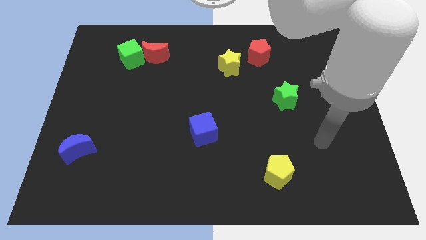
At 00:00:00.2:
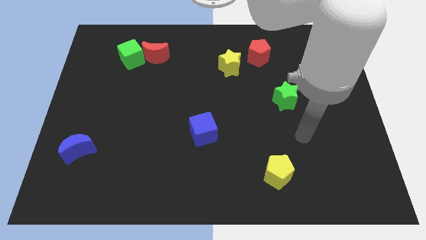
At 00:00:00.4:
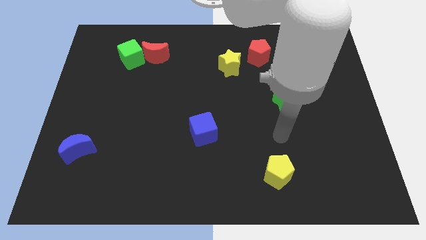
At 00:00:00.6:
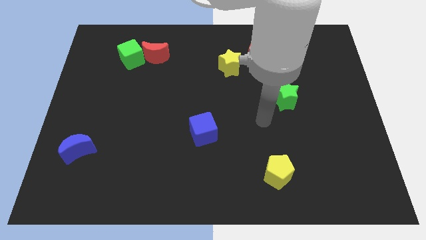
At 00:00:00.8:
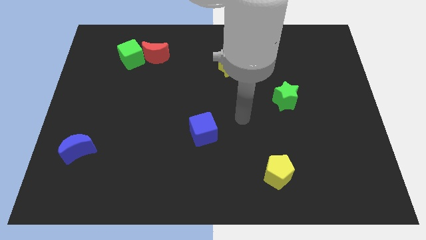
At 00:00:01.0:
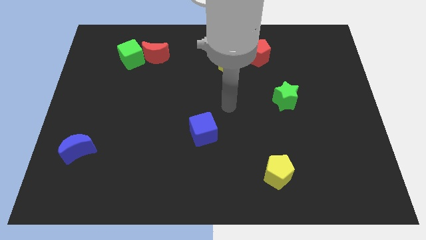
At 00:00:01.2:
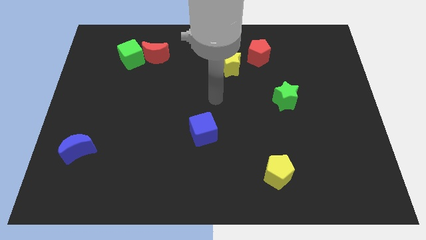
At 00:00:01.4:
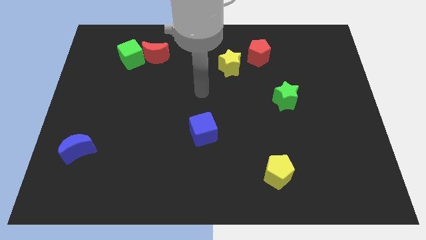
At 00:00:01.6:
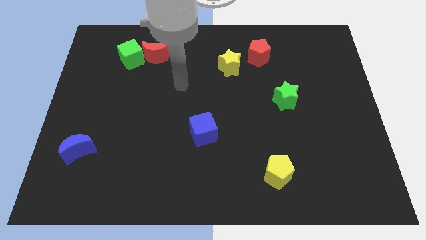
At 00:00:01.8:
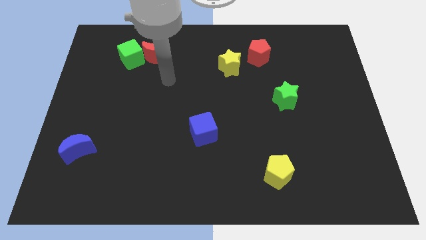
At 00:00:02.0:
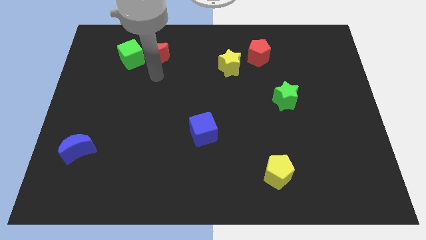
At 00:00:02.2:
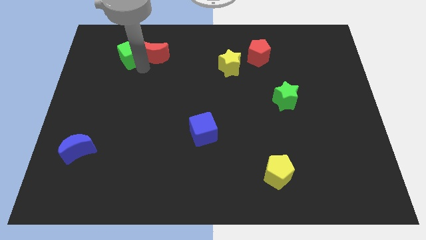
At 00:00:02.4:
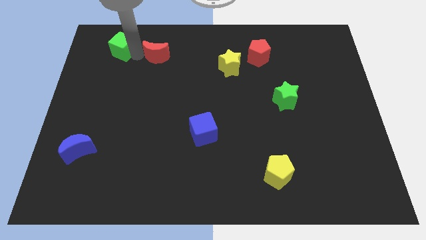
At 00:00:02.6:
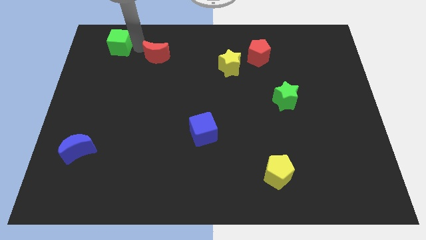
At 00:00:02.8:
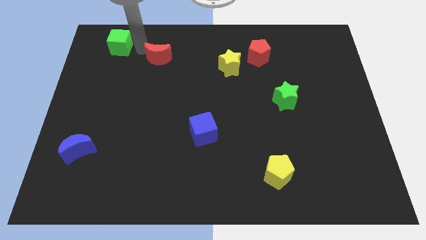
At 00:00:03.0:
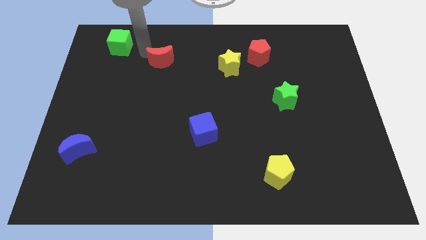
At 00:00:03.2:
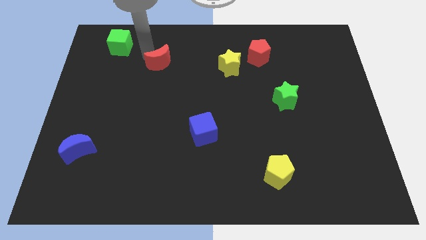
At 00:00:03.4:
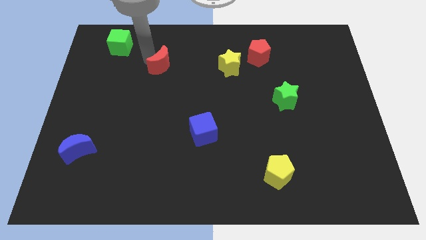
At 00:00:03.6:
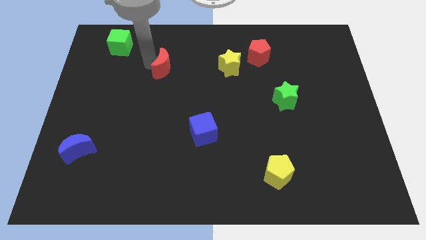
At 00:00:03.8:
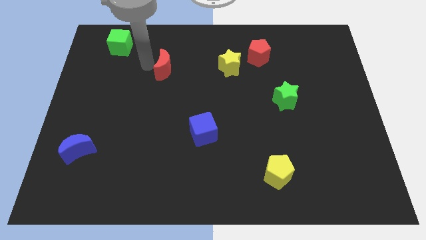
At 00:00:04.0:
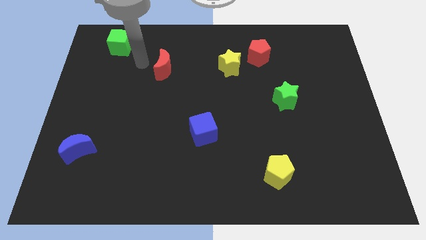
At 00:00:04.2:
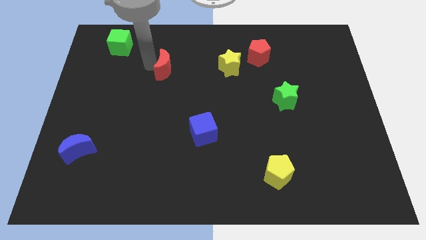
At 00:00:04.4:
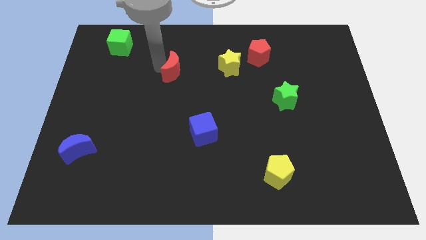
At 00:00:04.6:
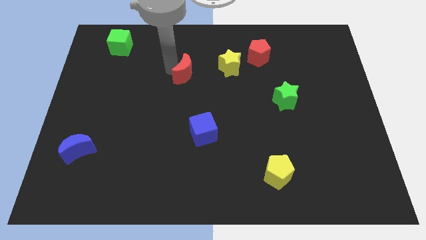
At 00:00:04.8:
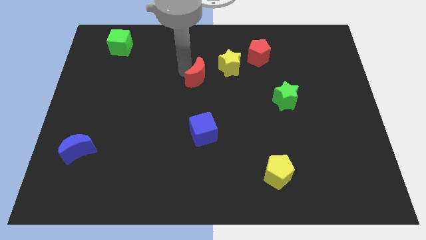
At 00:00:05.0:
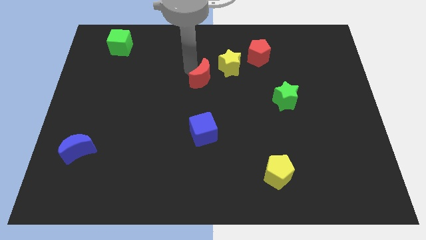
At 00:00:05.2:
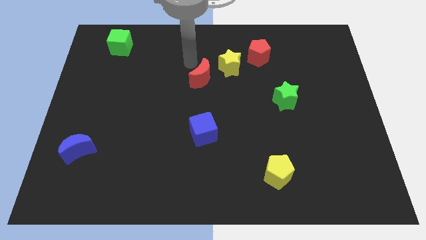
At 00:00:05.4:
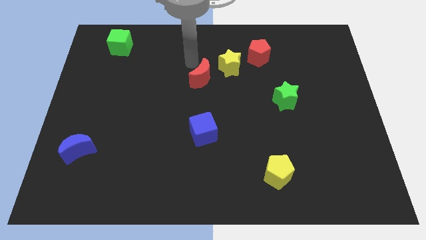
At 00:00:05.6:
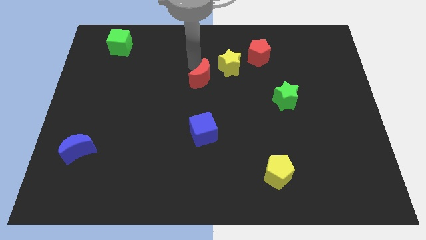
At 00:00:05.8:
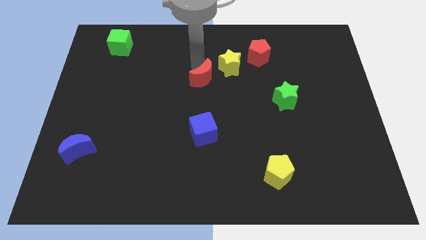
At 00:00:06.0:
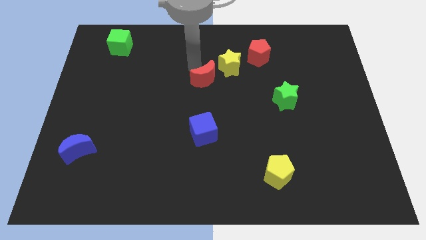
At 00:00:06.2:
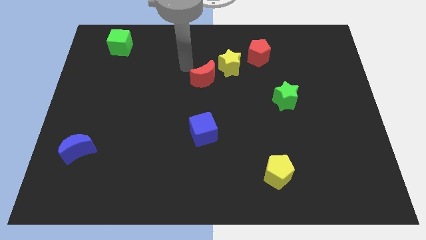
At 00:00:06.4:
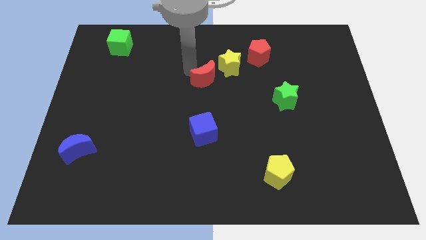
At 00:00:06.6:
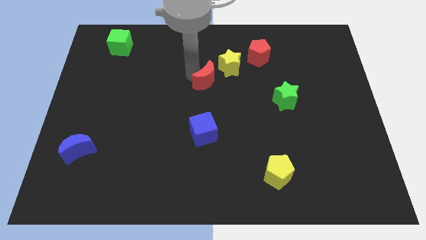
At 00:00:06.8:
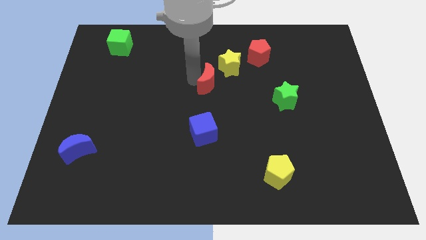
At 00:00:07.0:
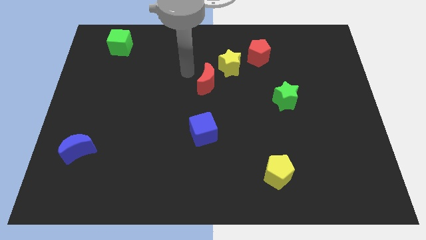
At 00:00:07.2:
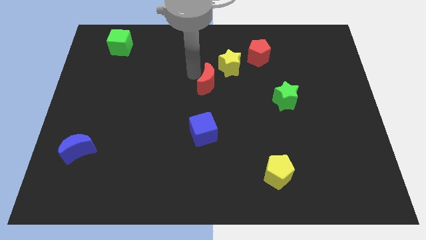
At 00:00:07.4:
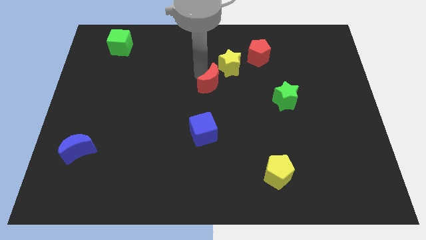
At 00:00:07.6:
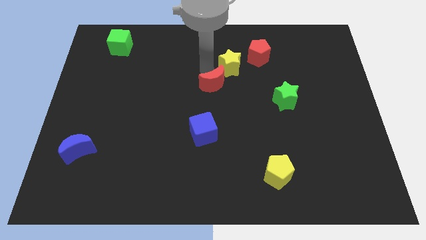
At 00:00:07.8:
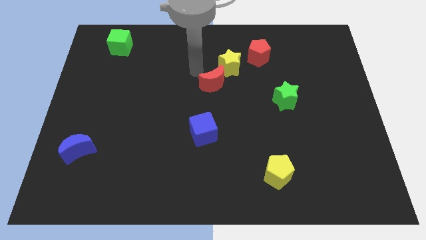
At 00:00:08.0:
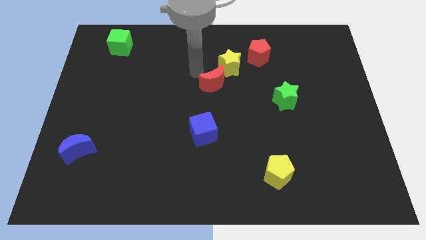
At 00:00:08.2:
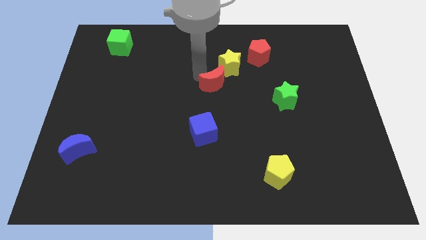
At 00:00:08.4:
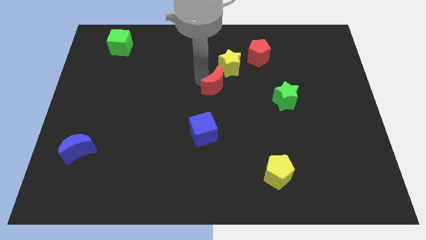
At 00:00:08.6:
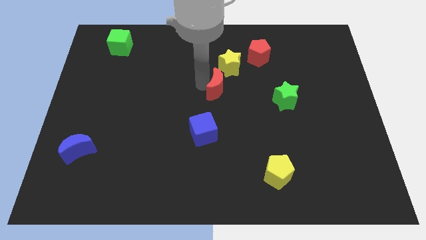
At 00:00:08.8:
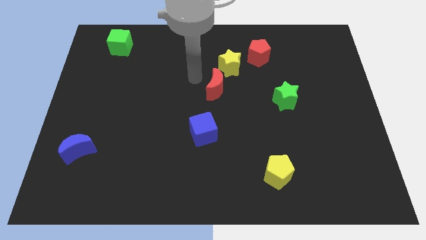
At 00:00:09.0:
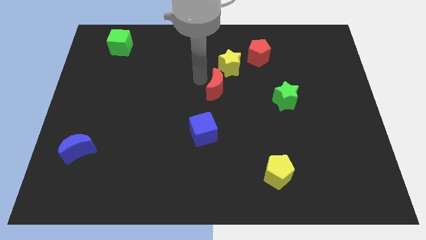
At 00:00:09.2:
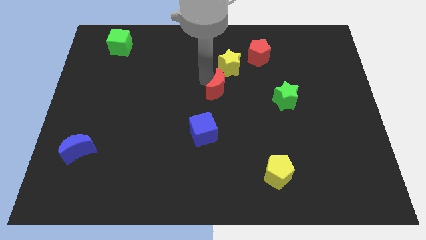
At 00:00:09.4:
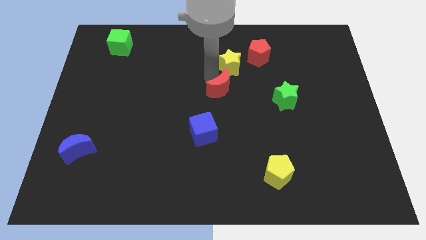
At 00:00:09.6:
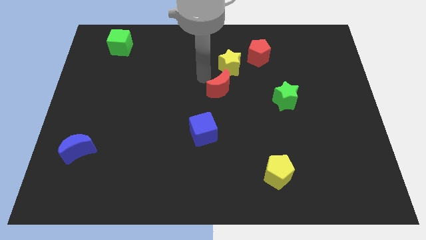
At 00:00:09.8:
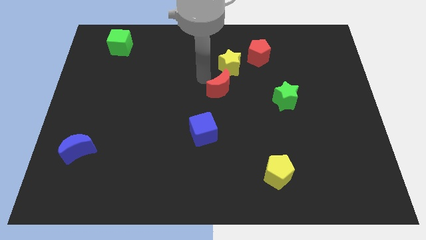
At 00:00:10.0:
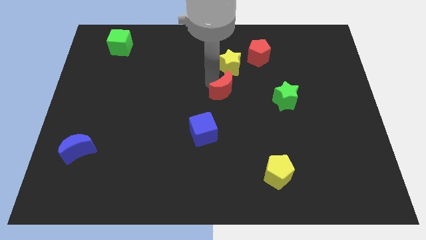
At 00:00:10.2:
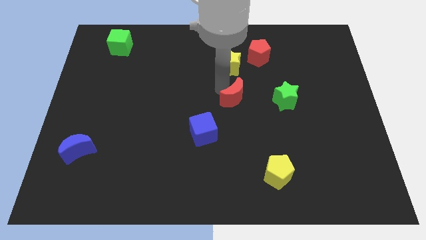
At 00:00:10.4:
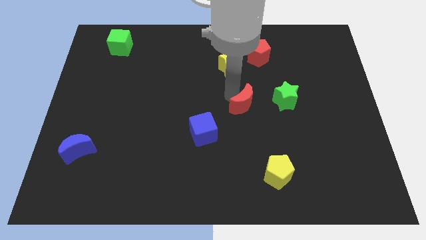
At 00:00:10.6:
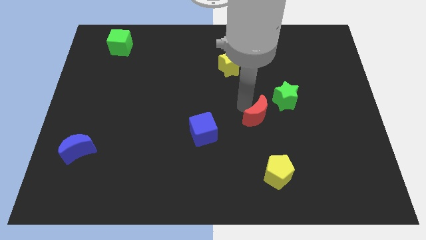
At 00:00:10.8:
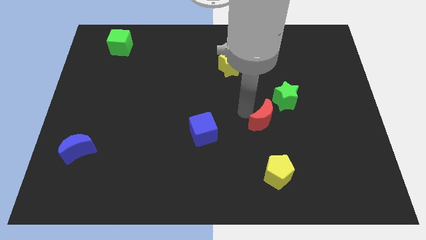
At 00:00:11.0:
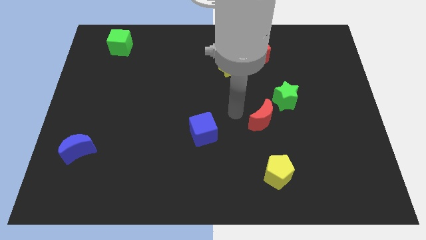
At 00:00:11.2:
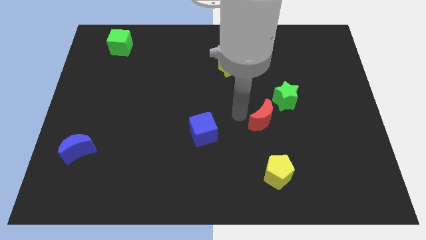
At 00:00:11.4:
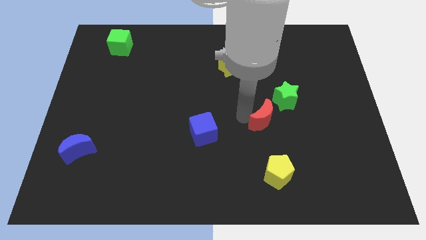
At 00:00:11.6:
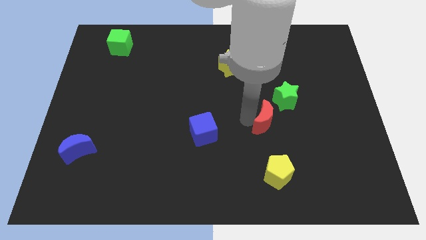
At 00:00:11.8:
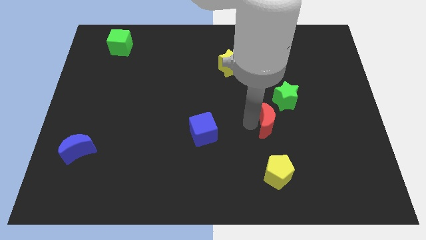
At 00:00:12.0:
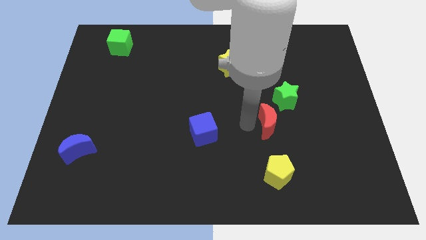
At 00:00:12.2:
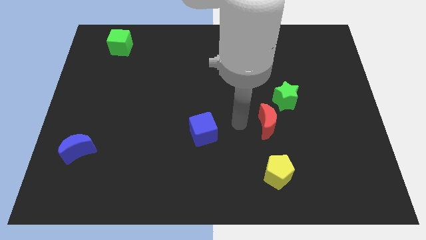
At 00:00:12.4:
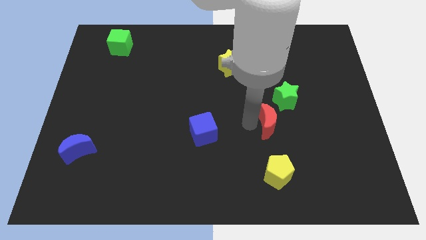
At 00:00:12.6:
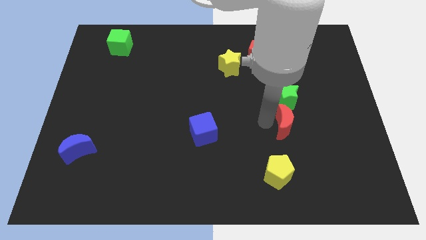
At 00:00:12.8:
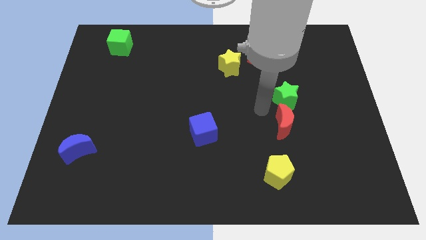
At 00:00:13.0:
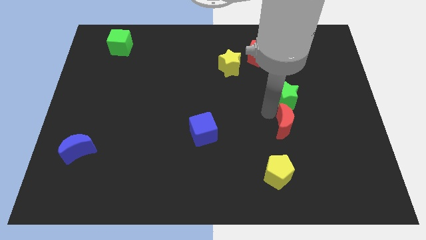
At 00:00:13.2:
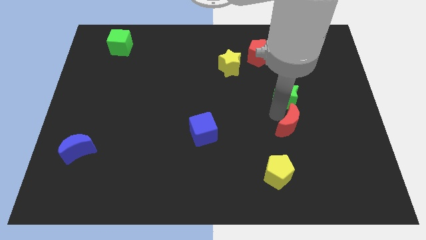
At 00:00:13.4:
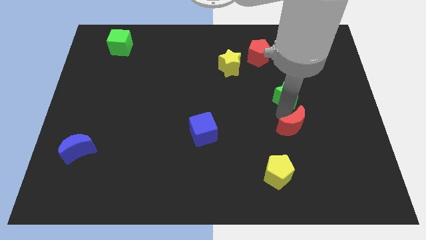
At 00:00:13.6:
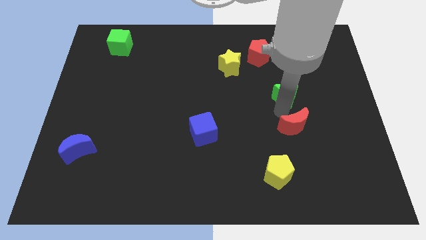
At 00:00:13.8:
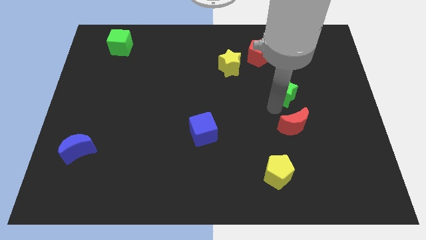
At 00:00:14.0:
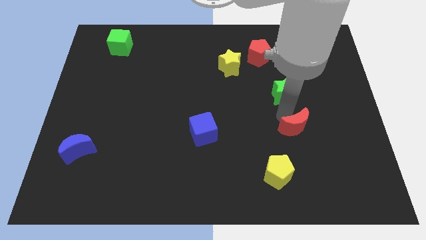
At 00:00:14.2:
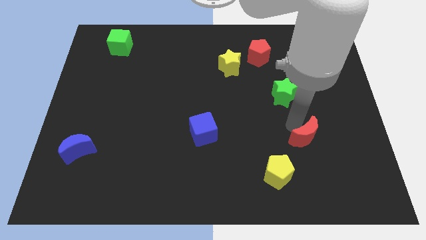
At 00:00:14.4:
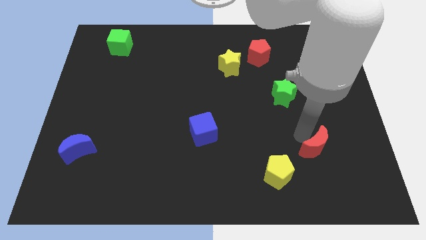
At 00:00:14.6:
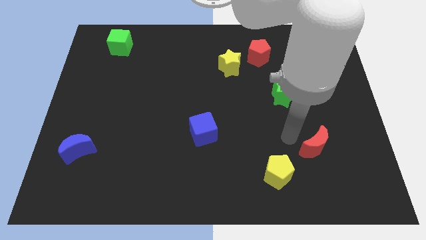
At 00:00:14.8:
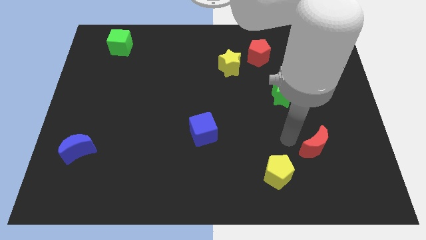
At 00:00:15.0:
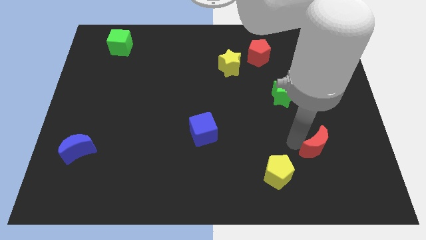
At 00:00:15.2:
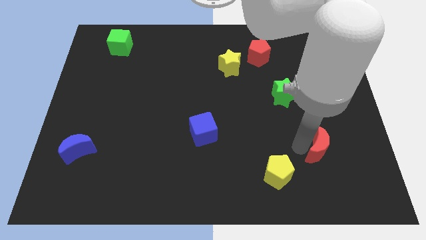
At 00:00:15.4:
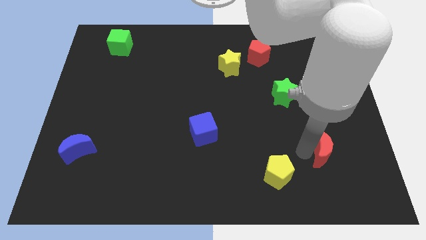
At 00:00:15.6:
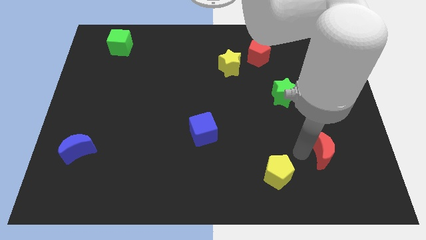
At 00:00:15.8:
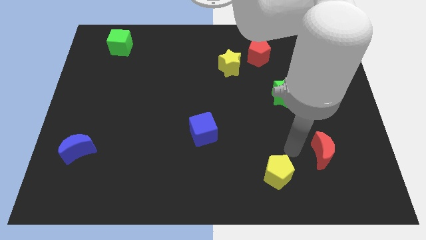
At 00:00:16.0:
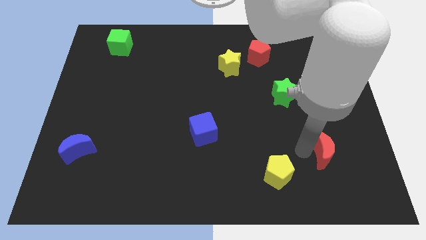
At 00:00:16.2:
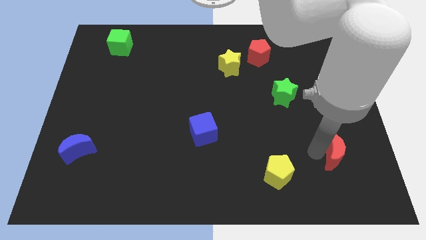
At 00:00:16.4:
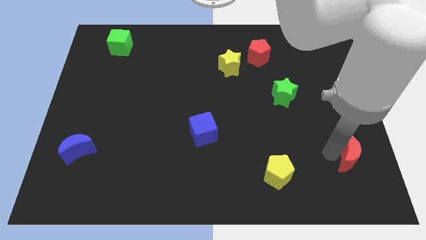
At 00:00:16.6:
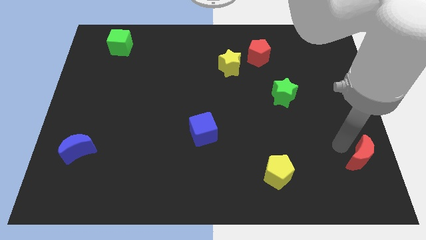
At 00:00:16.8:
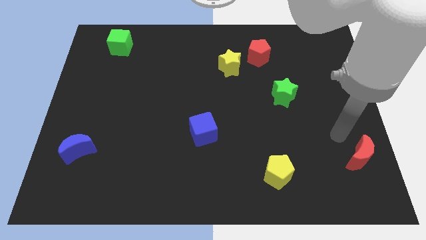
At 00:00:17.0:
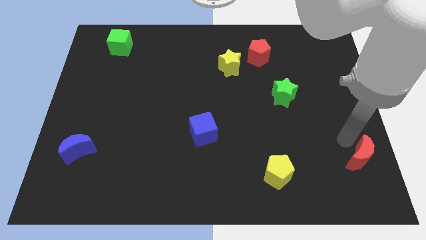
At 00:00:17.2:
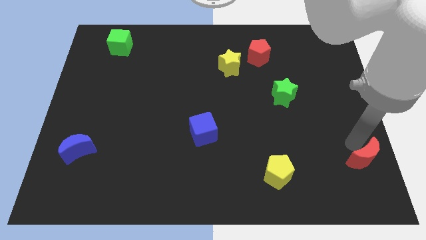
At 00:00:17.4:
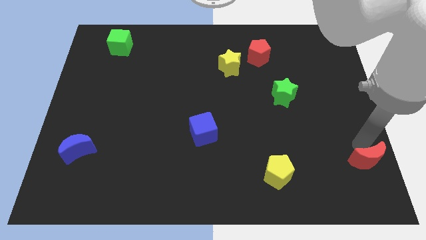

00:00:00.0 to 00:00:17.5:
put the red moon to the bottom right corner
